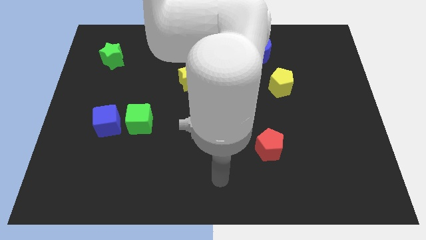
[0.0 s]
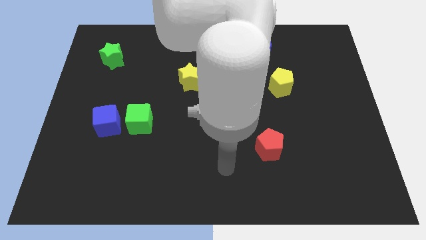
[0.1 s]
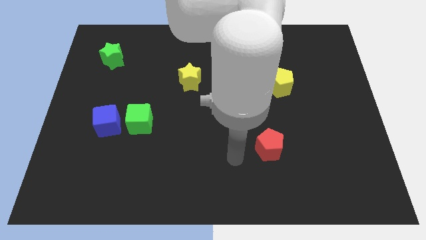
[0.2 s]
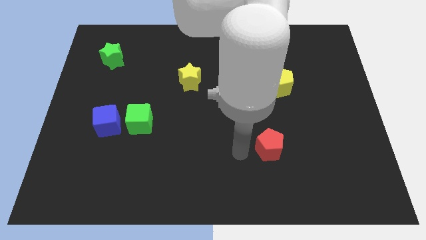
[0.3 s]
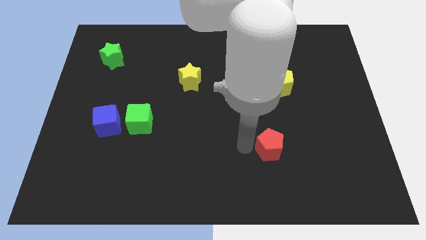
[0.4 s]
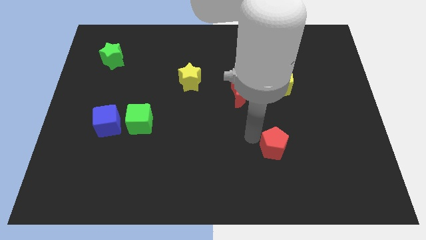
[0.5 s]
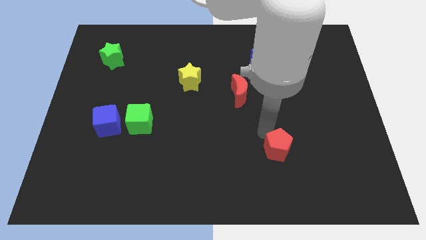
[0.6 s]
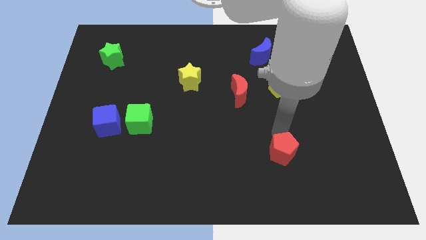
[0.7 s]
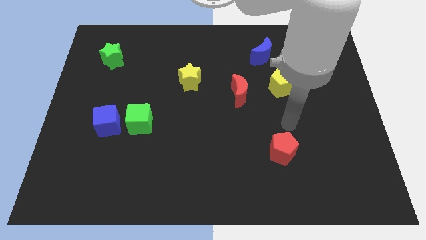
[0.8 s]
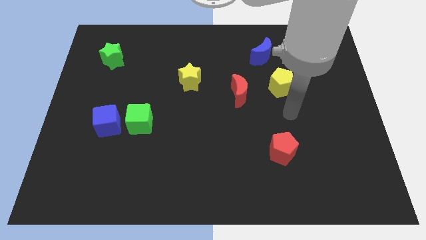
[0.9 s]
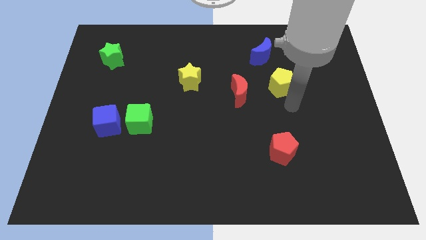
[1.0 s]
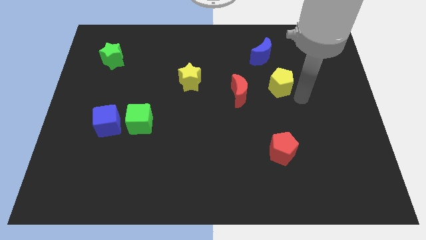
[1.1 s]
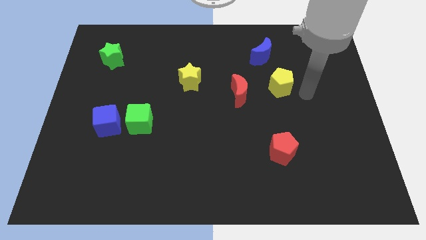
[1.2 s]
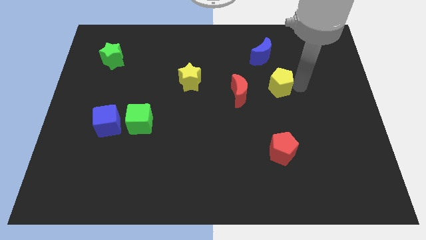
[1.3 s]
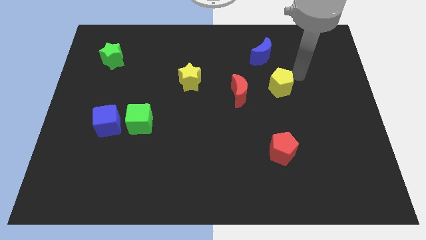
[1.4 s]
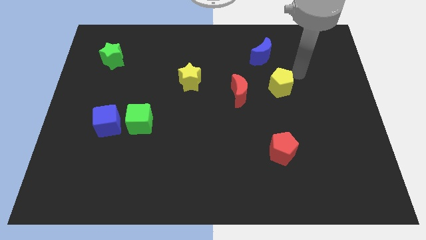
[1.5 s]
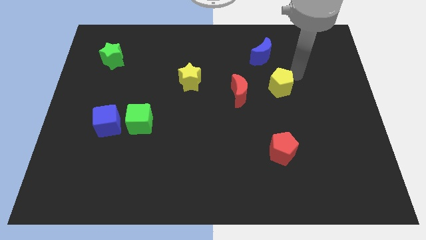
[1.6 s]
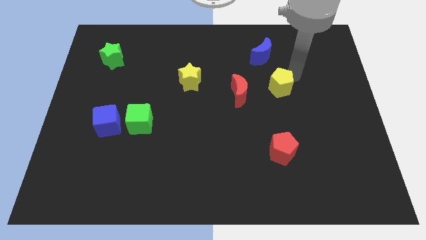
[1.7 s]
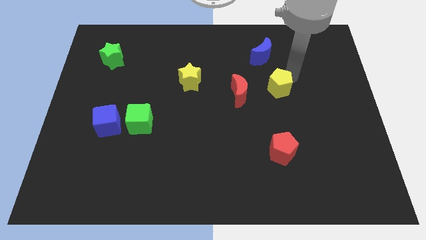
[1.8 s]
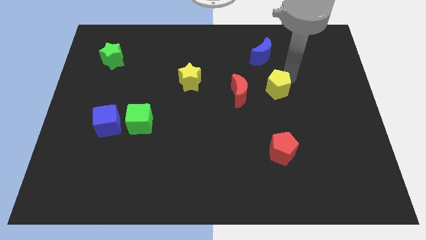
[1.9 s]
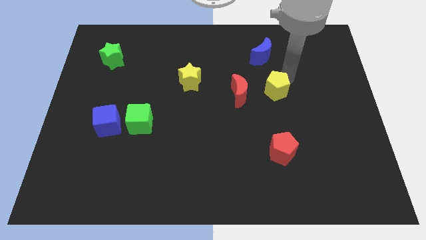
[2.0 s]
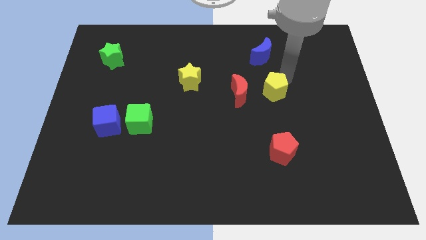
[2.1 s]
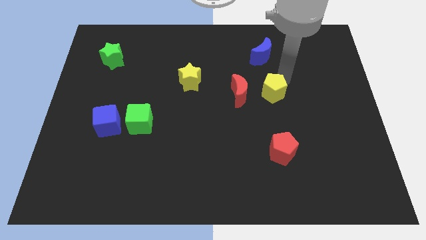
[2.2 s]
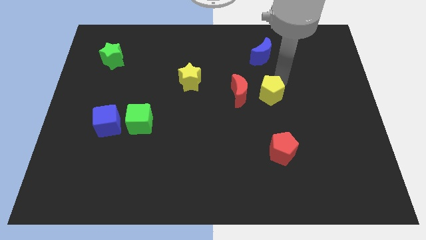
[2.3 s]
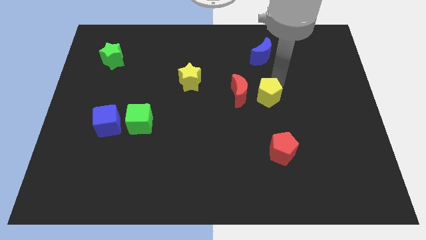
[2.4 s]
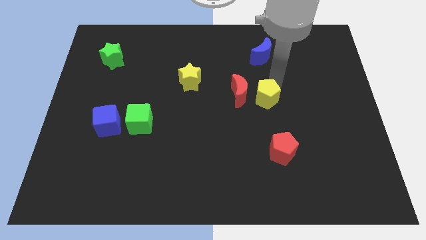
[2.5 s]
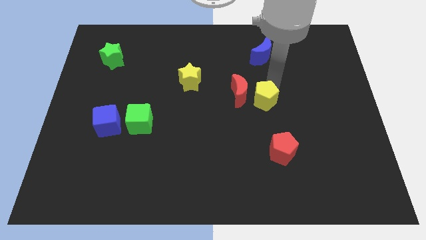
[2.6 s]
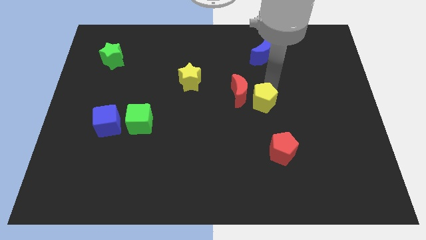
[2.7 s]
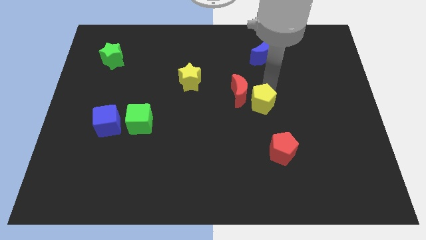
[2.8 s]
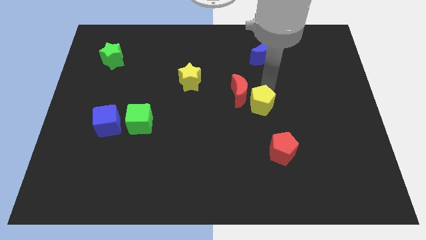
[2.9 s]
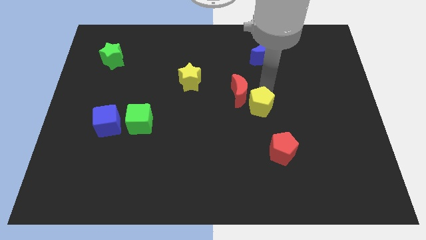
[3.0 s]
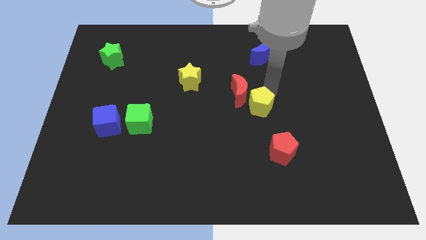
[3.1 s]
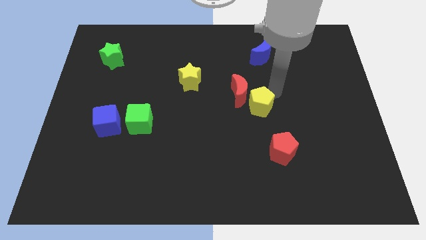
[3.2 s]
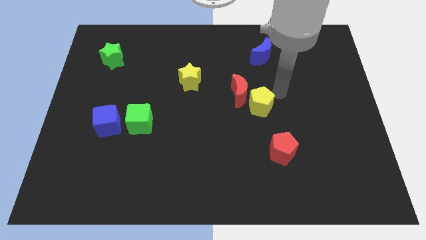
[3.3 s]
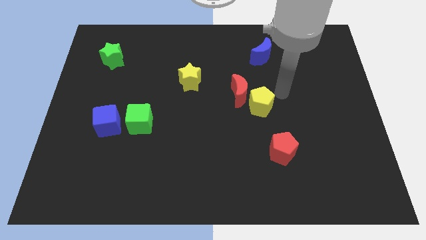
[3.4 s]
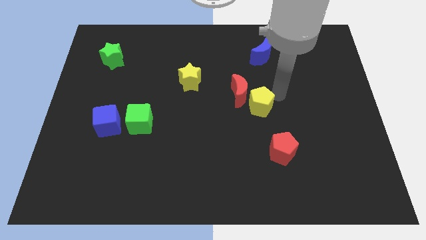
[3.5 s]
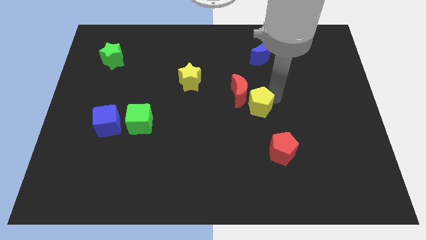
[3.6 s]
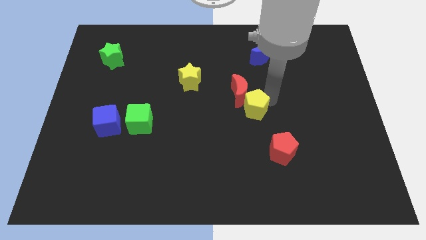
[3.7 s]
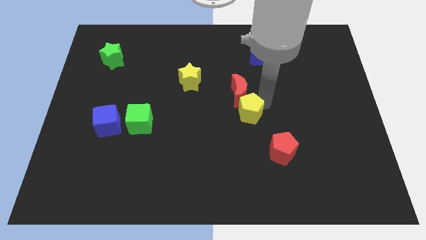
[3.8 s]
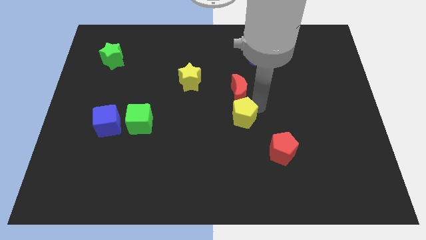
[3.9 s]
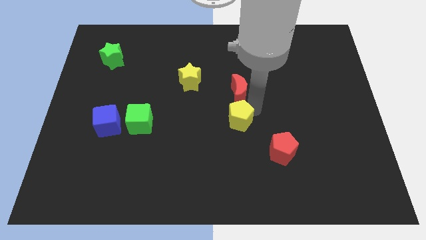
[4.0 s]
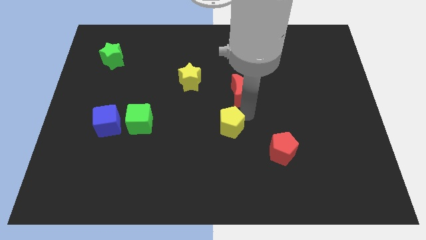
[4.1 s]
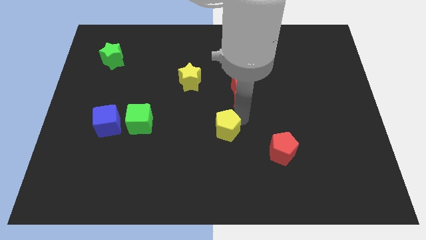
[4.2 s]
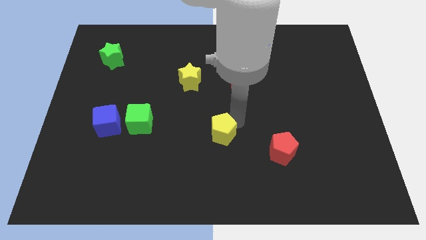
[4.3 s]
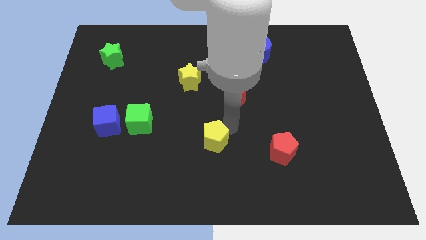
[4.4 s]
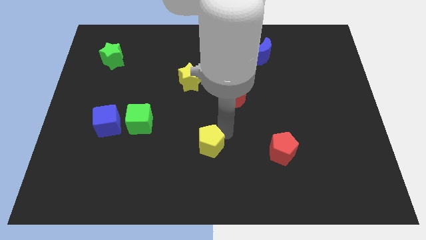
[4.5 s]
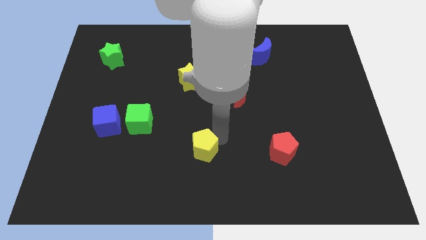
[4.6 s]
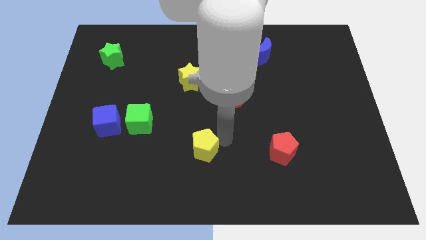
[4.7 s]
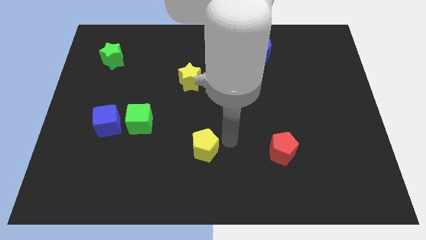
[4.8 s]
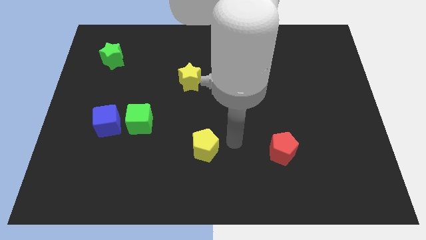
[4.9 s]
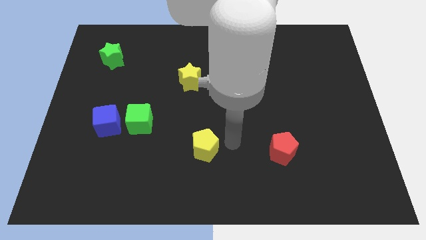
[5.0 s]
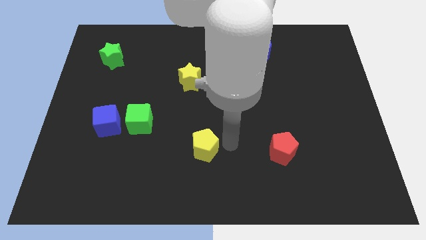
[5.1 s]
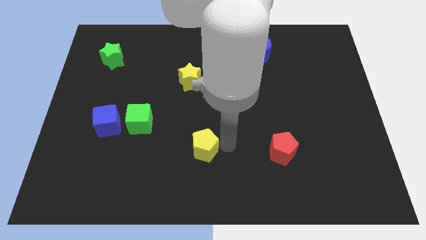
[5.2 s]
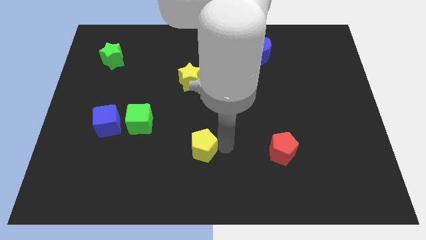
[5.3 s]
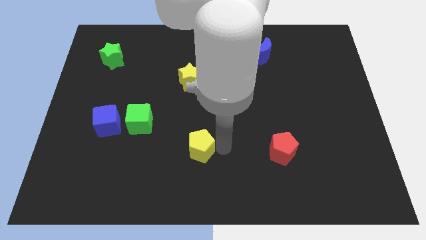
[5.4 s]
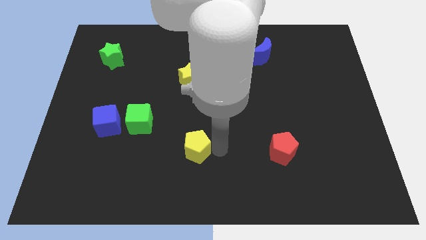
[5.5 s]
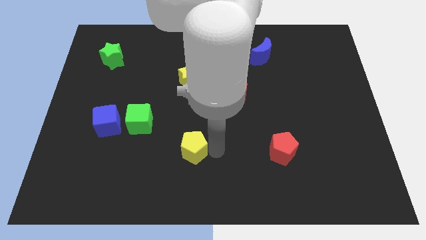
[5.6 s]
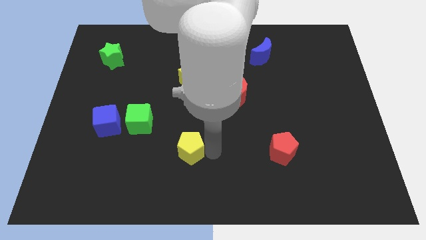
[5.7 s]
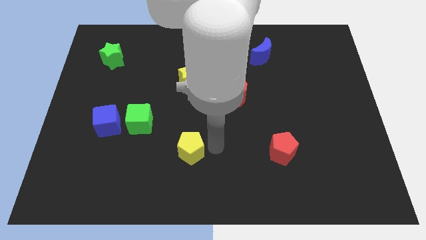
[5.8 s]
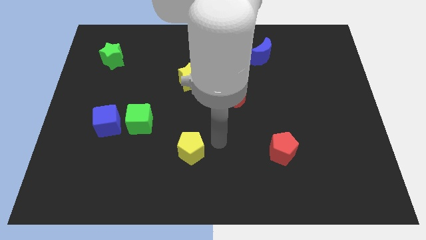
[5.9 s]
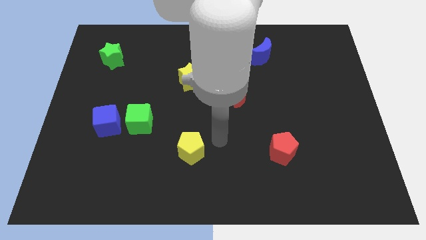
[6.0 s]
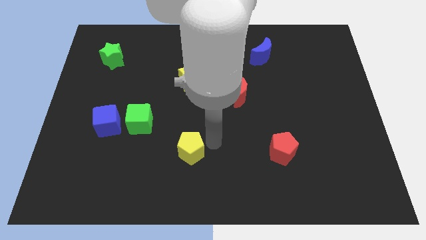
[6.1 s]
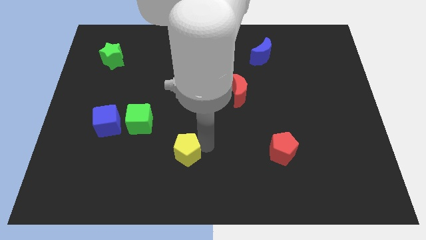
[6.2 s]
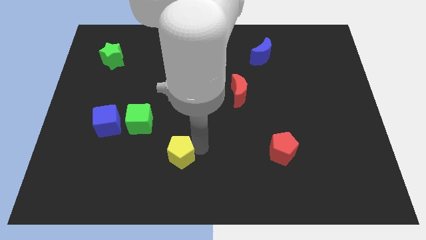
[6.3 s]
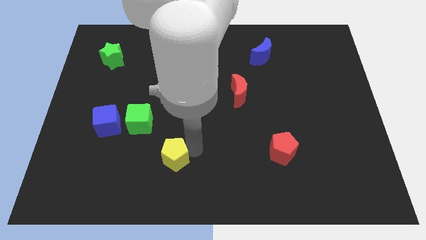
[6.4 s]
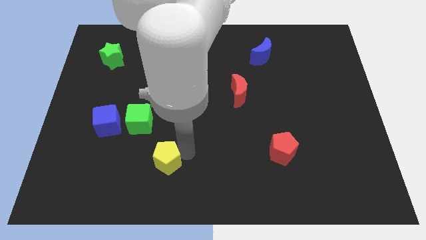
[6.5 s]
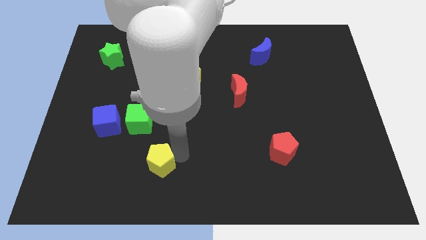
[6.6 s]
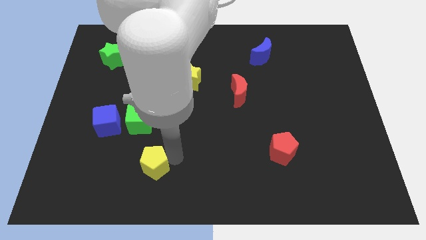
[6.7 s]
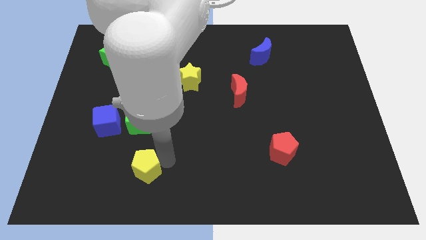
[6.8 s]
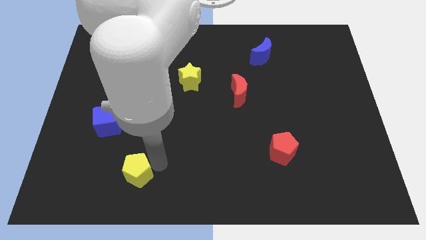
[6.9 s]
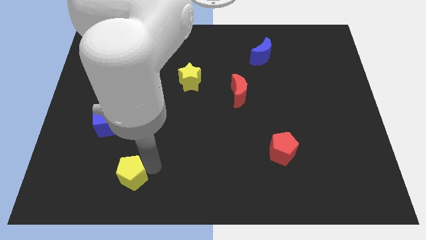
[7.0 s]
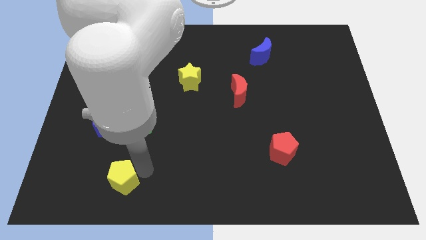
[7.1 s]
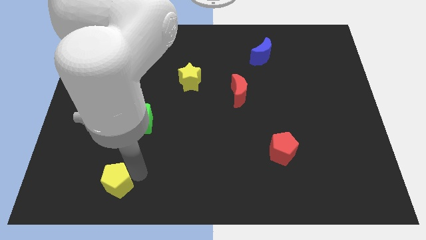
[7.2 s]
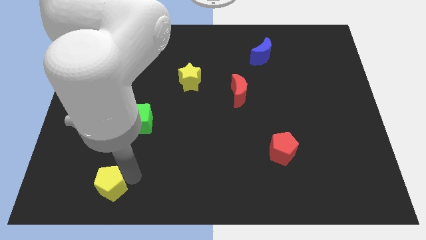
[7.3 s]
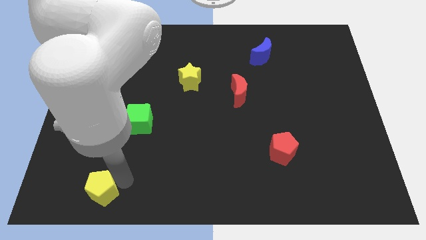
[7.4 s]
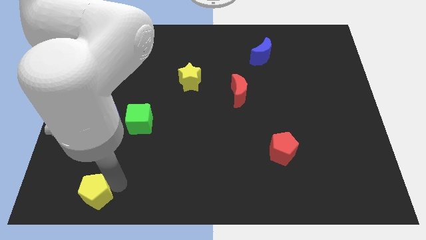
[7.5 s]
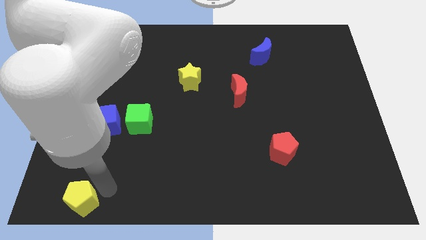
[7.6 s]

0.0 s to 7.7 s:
slide the yellow pentagon to the bottom left of the board
